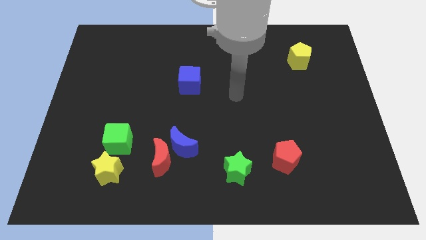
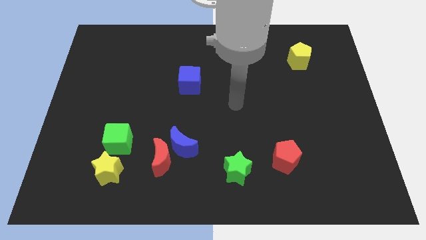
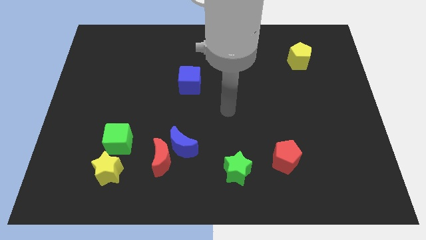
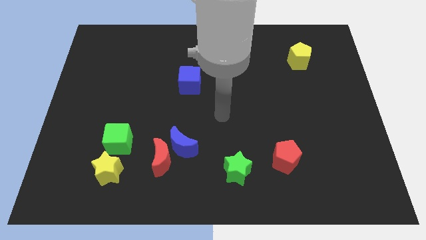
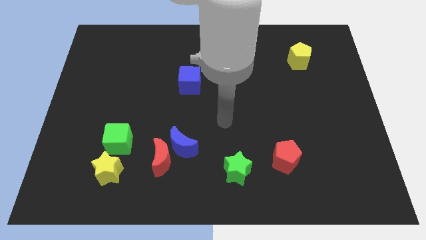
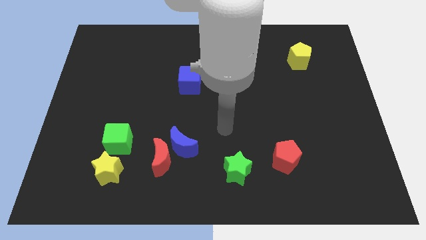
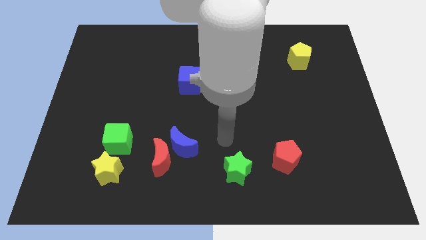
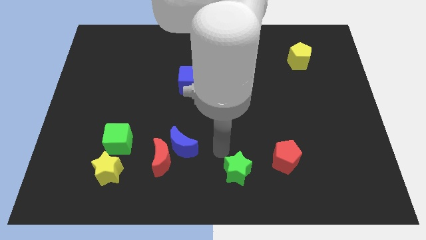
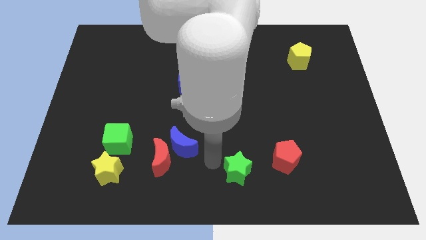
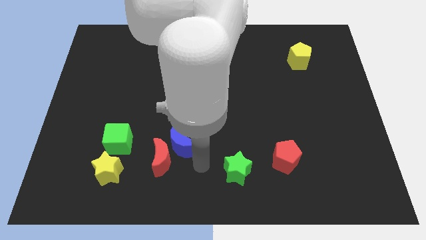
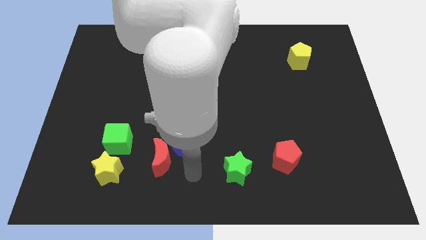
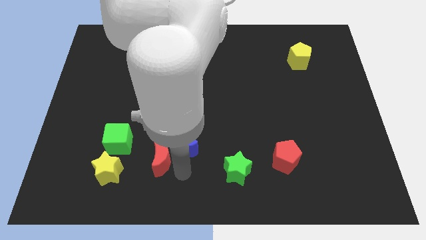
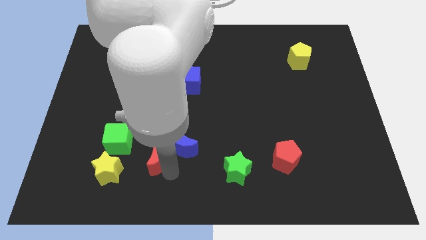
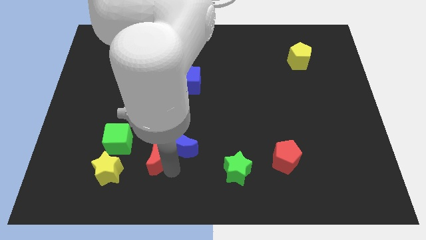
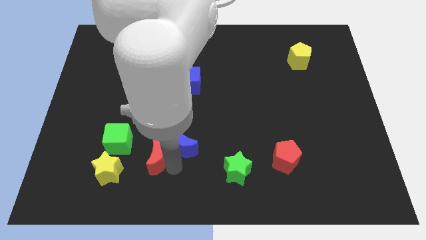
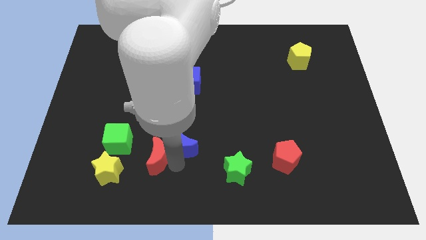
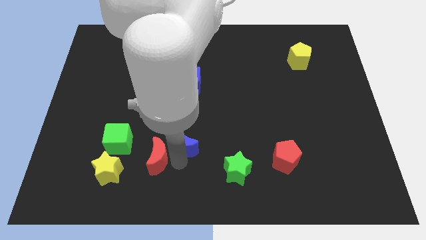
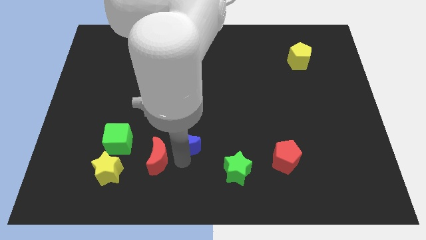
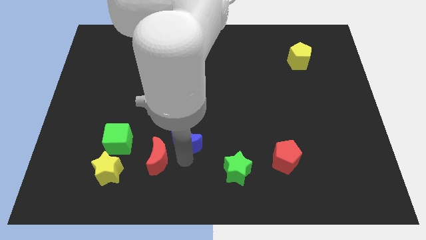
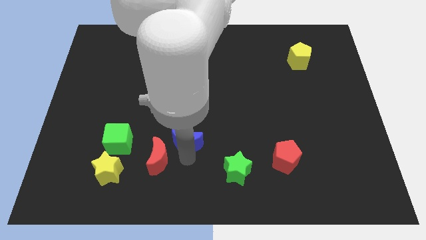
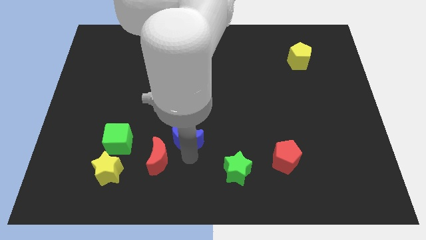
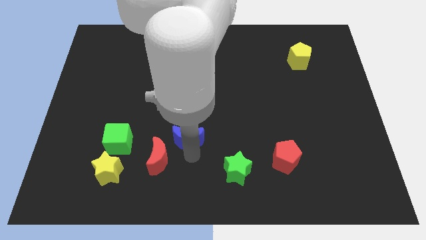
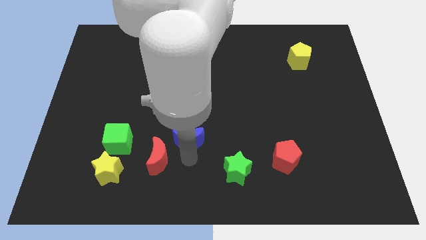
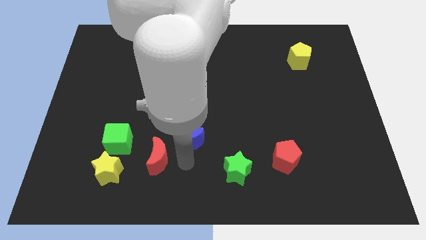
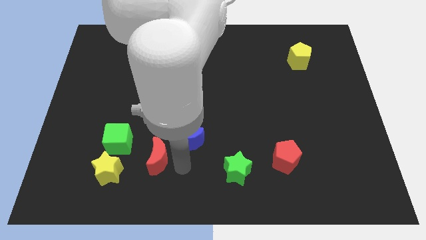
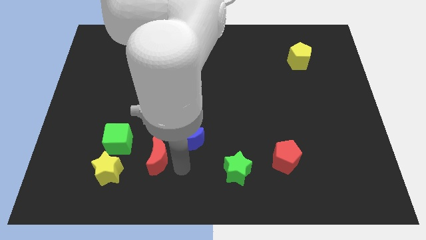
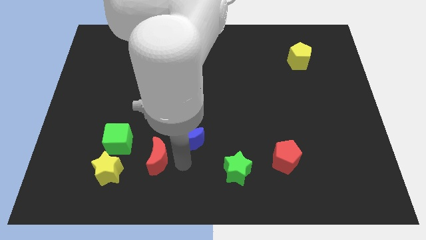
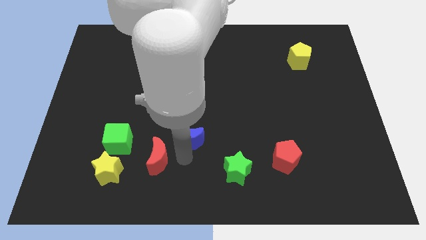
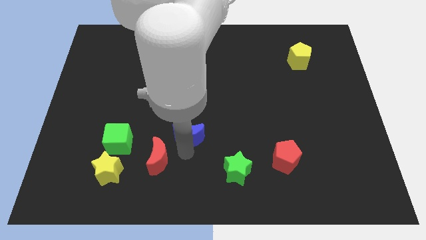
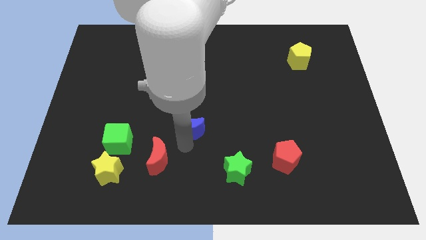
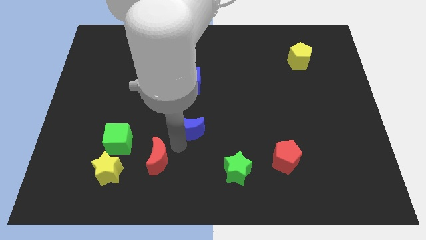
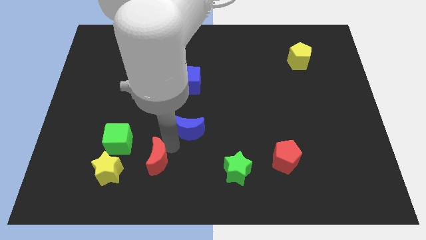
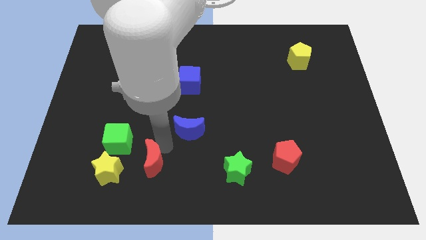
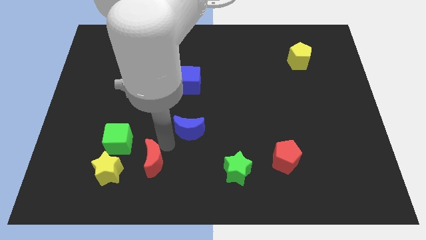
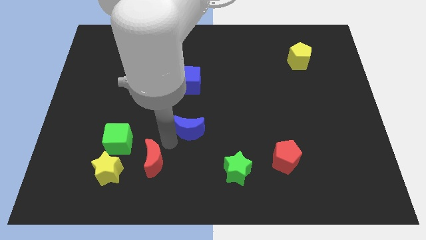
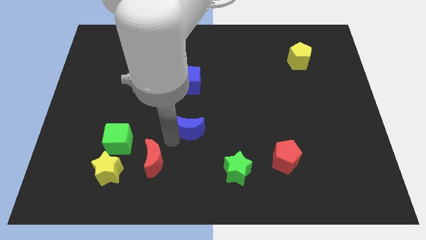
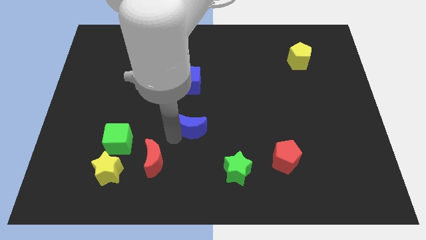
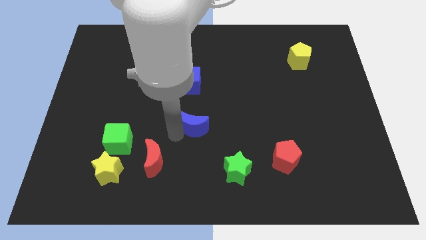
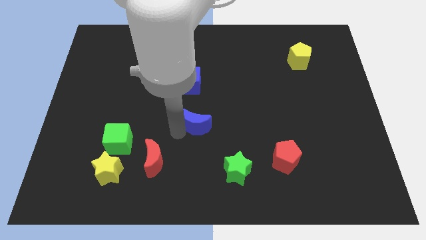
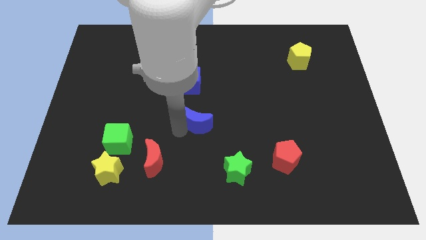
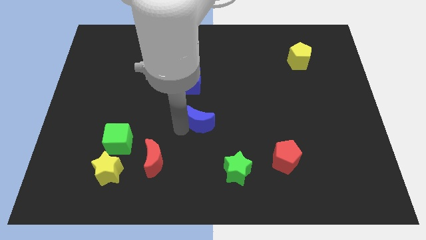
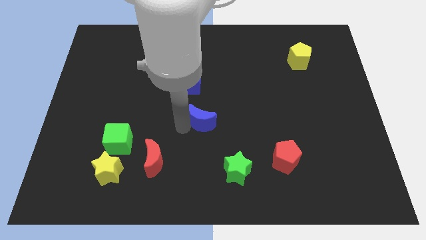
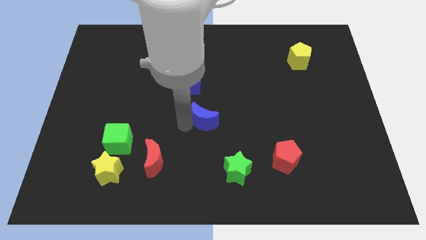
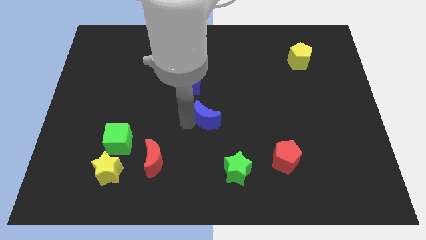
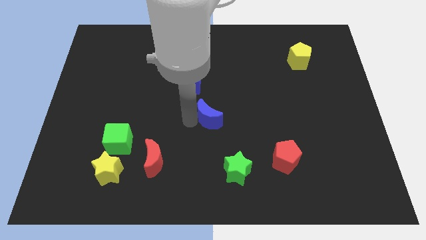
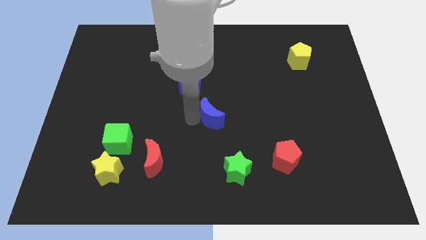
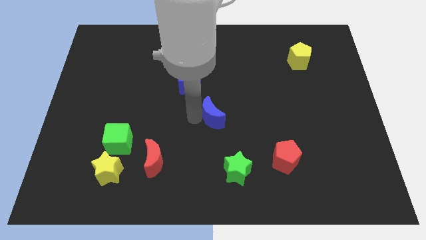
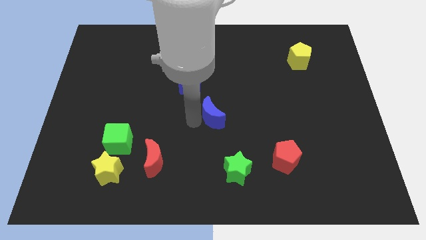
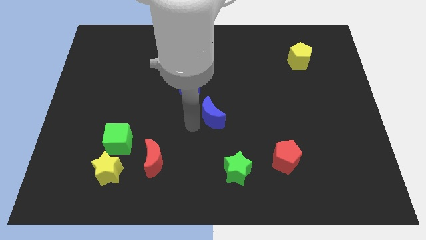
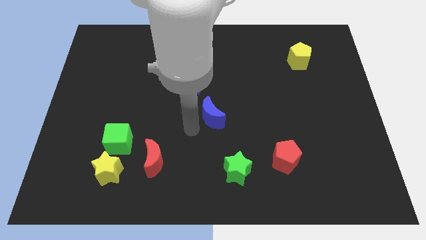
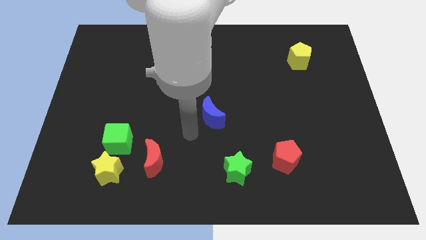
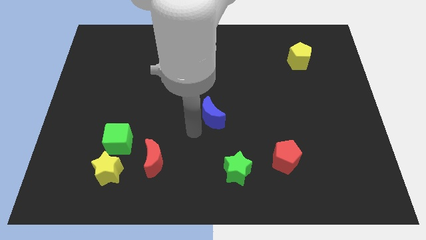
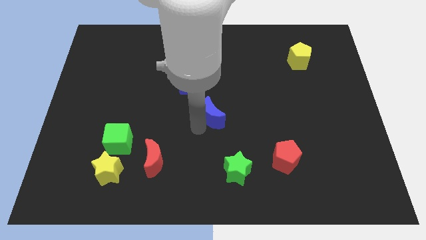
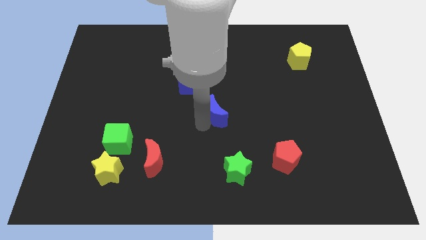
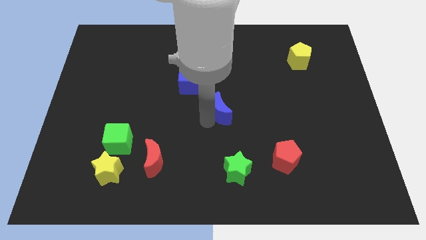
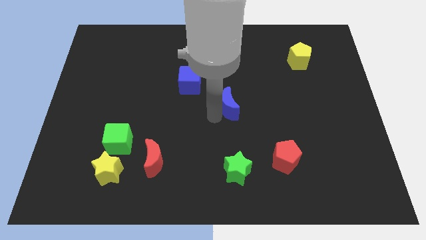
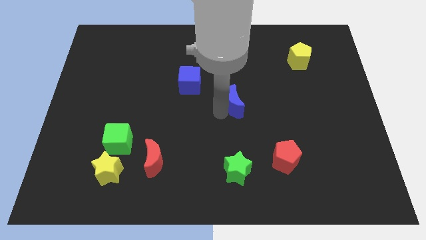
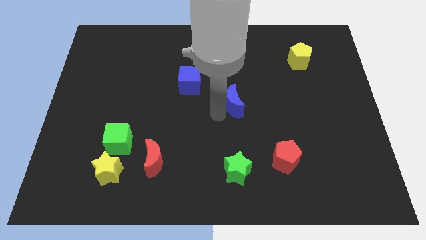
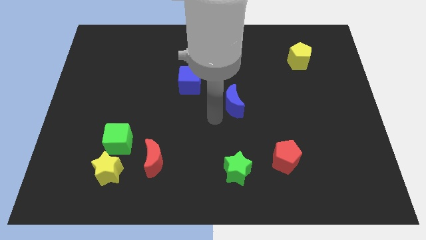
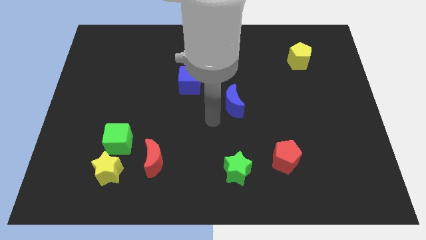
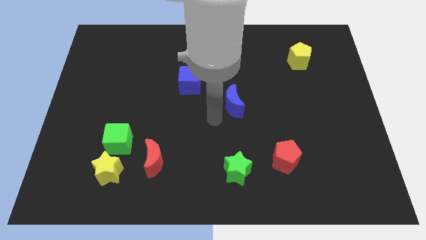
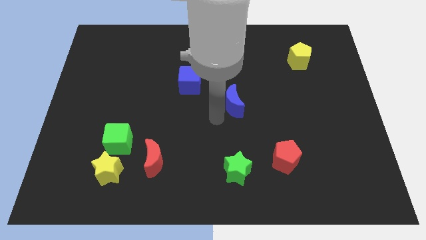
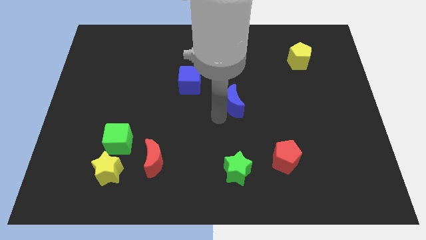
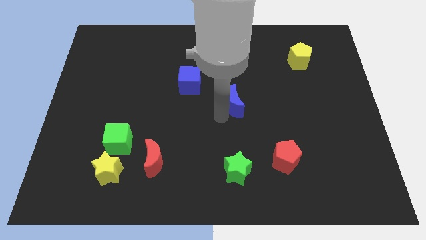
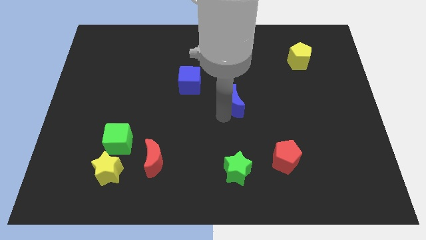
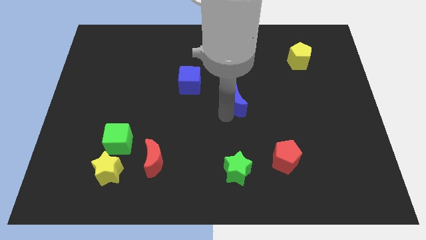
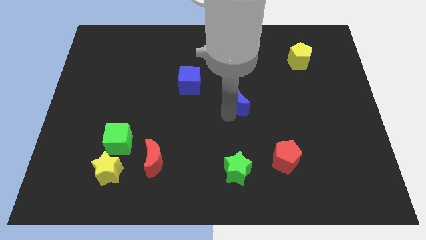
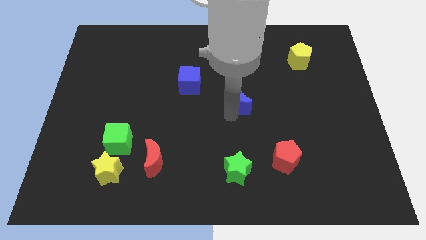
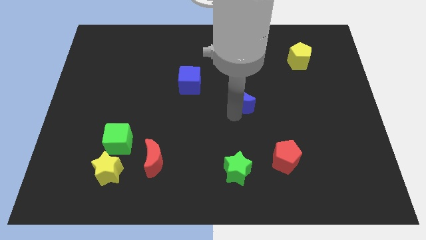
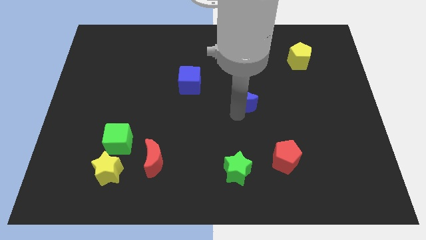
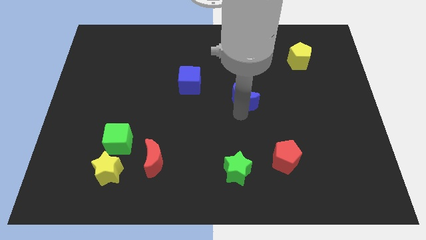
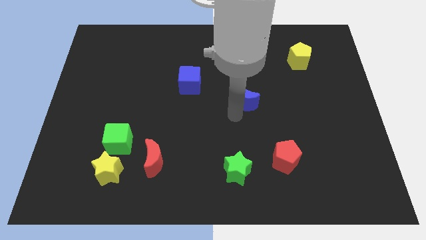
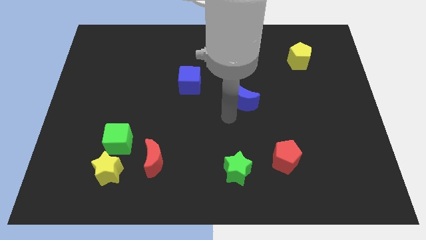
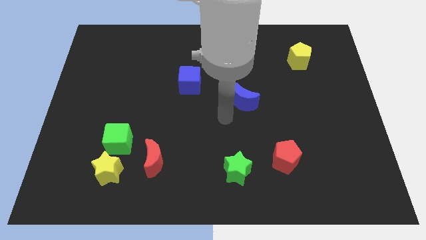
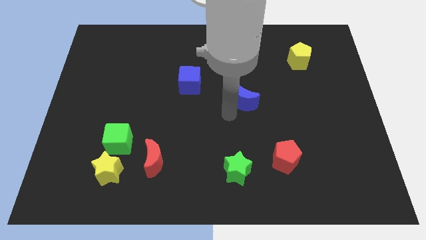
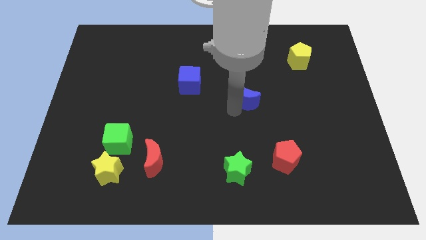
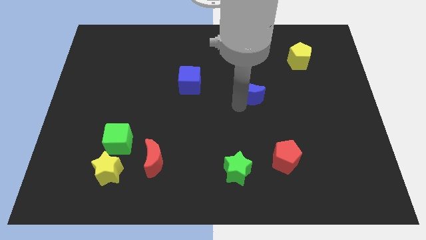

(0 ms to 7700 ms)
move the blue moon up and right

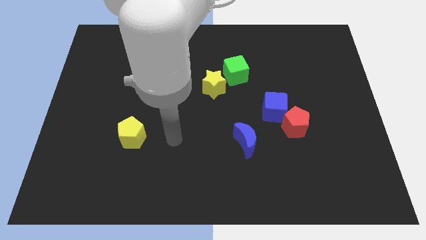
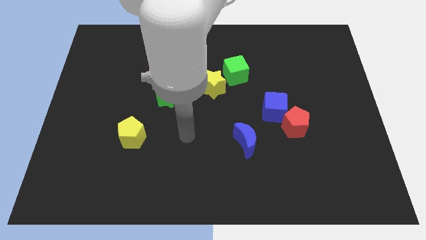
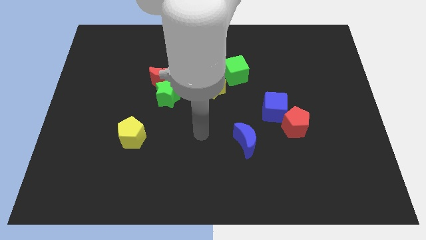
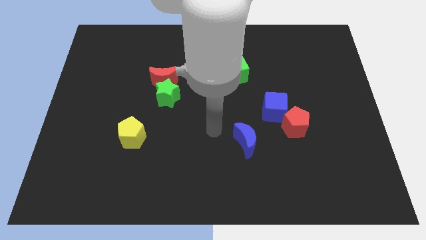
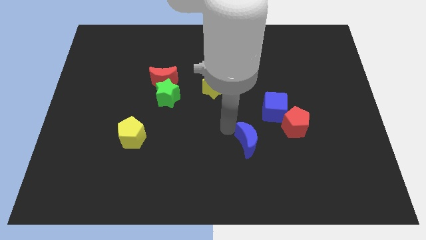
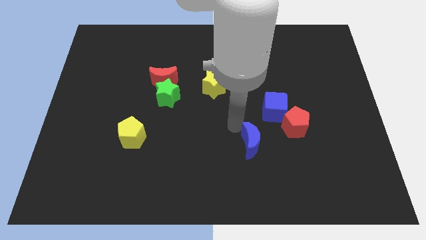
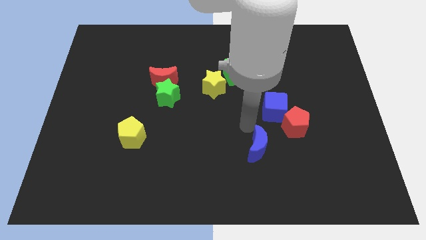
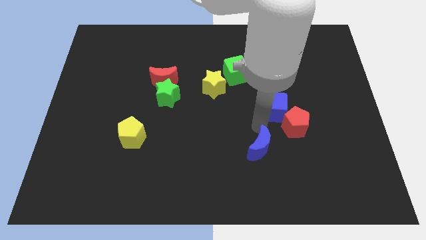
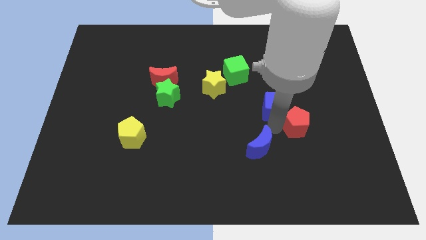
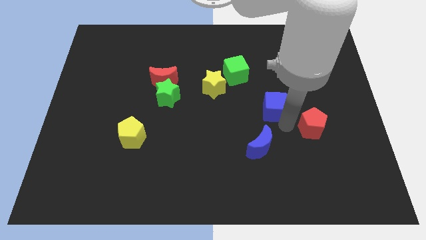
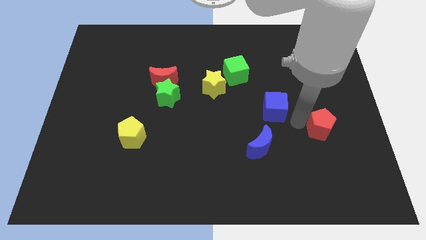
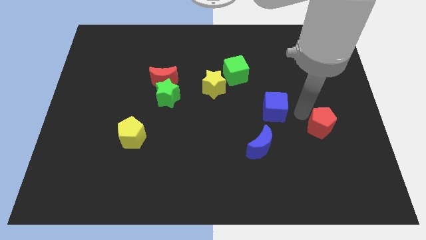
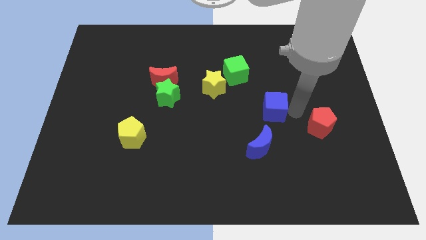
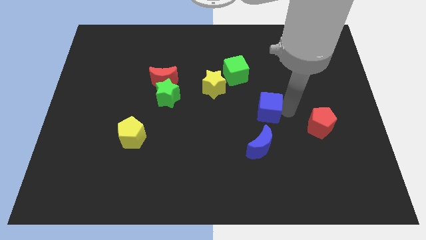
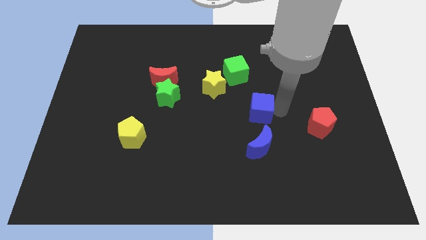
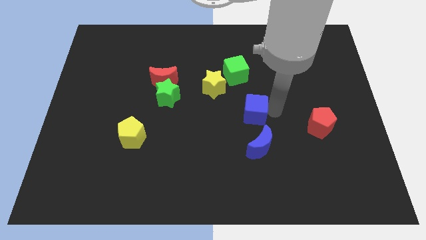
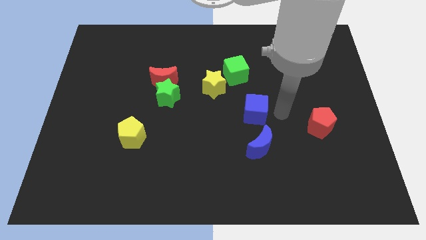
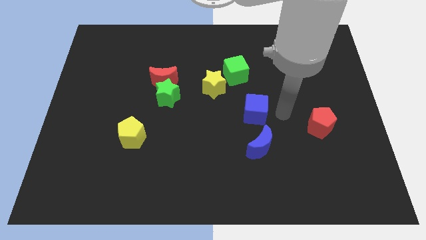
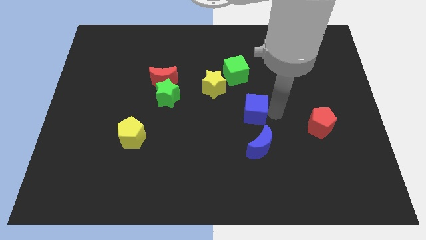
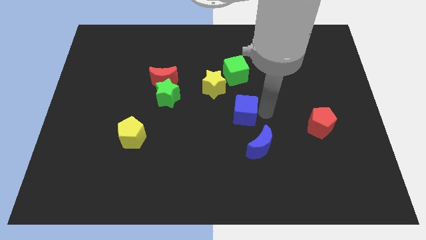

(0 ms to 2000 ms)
slide the blue cube left a little bit
